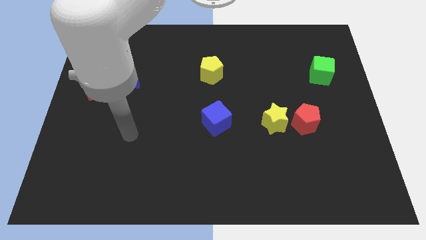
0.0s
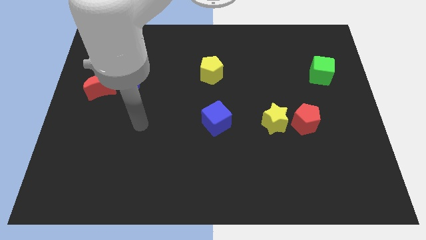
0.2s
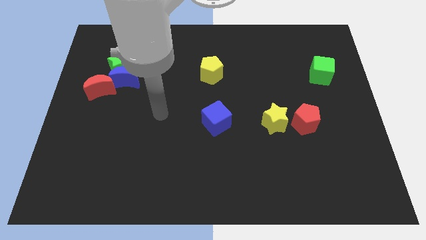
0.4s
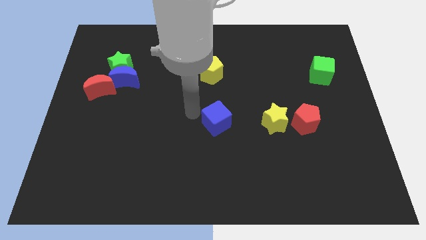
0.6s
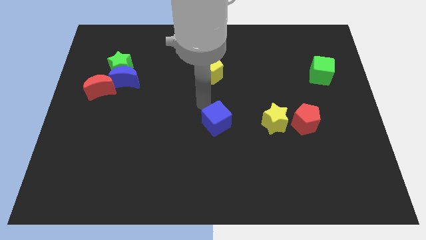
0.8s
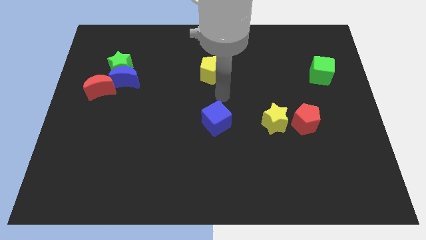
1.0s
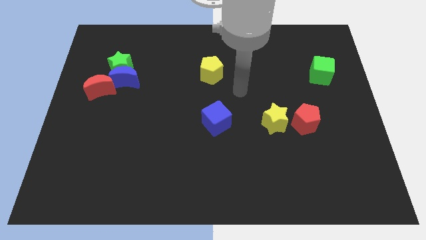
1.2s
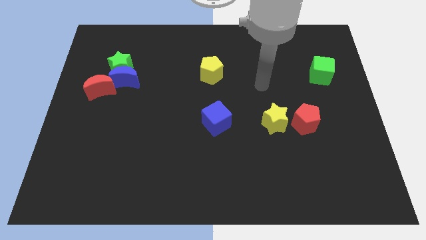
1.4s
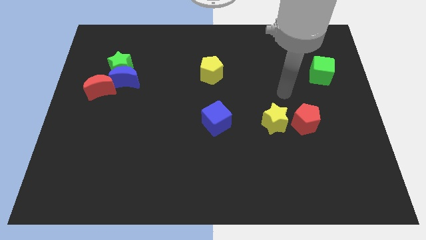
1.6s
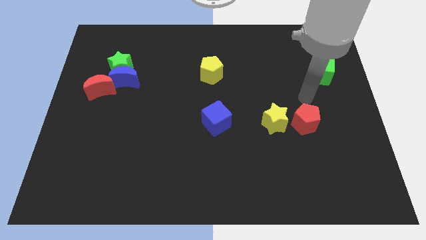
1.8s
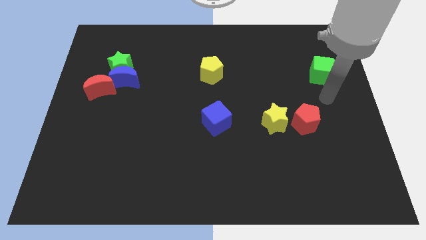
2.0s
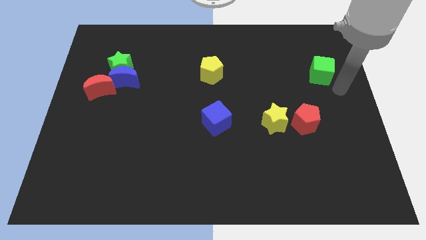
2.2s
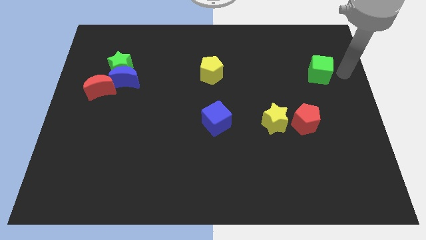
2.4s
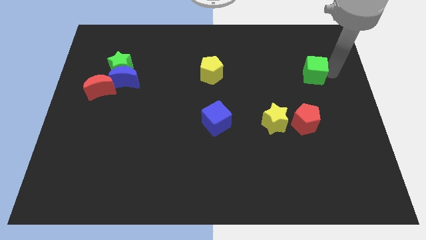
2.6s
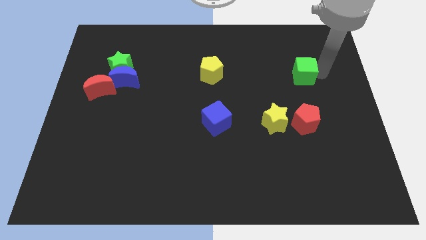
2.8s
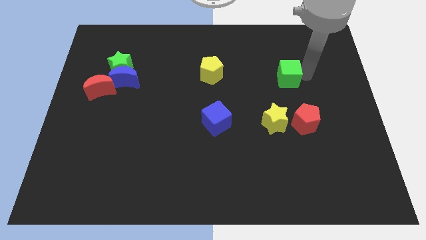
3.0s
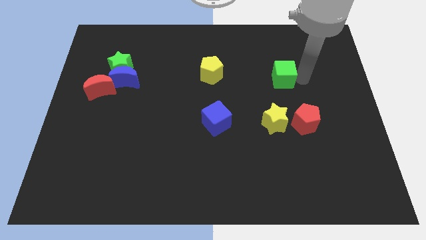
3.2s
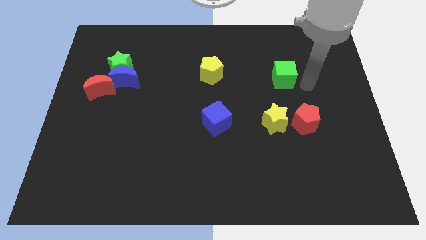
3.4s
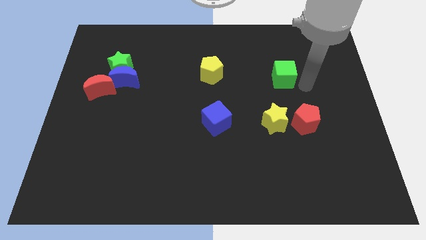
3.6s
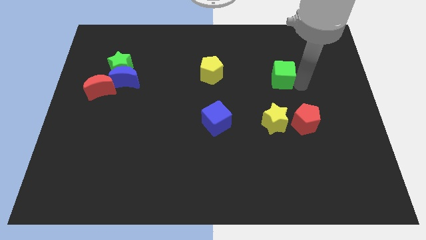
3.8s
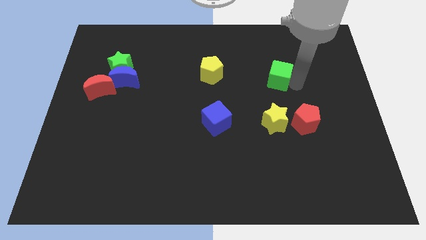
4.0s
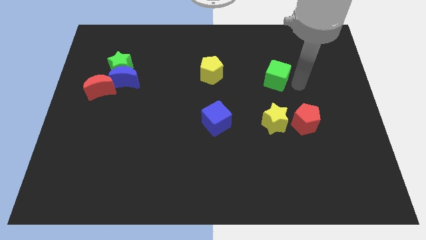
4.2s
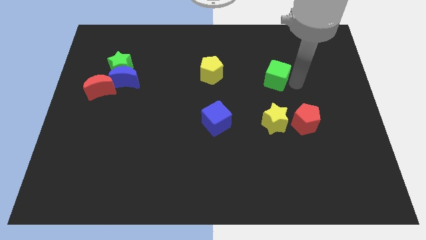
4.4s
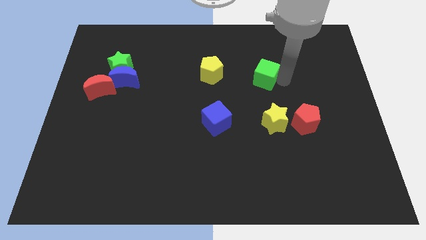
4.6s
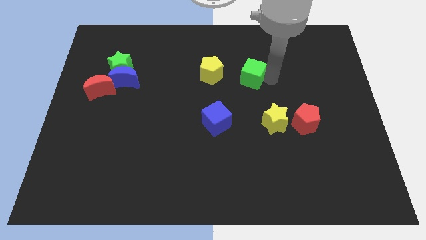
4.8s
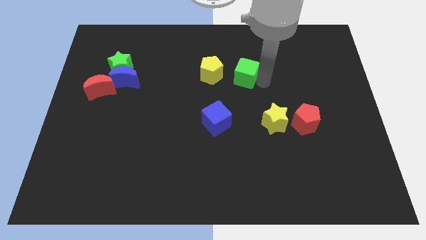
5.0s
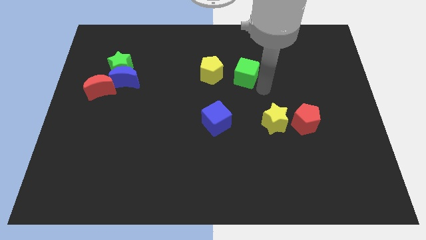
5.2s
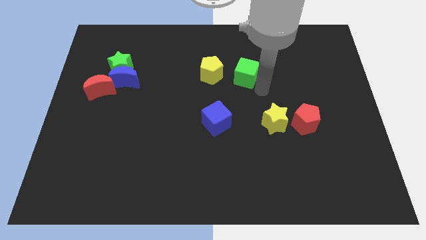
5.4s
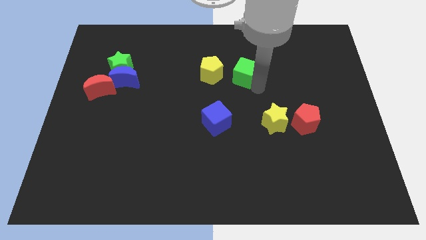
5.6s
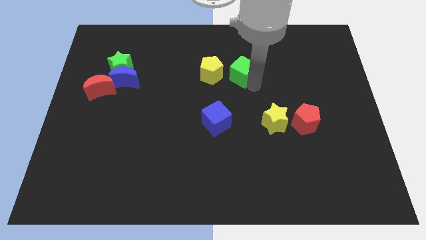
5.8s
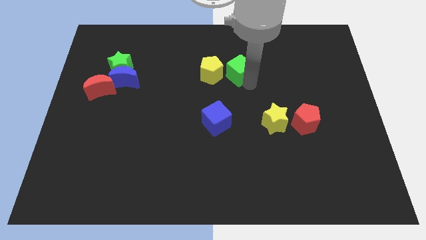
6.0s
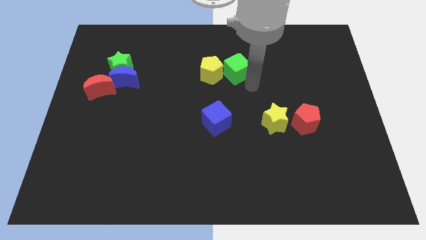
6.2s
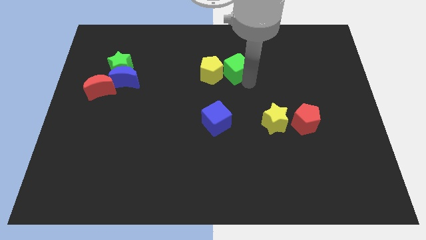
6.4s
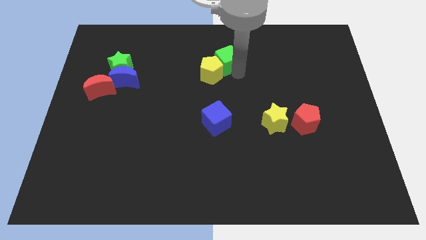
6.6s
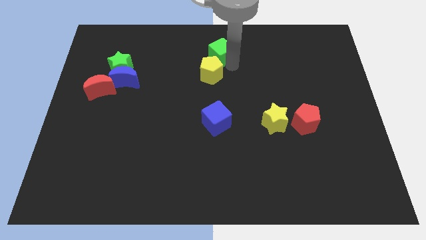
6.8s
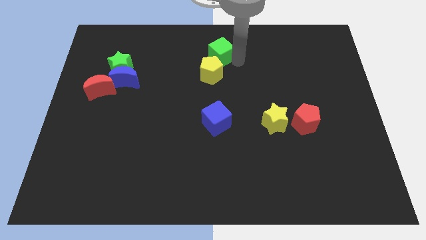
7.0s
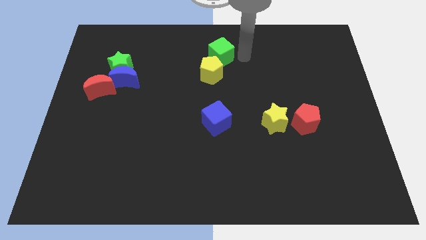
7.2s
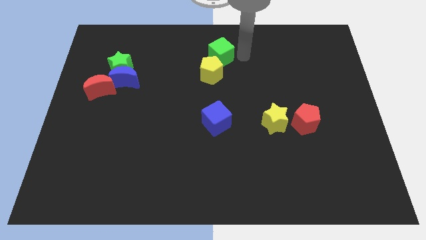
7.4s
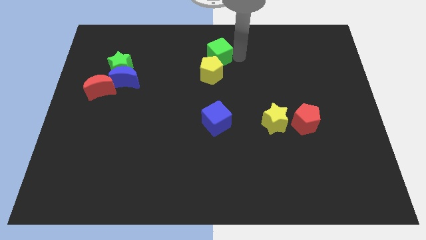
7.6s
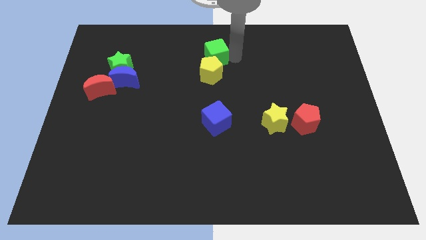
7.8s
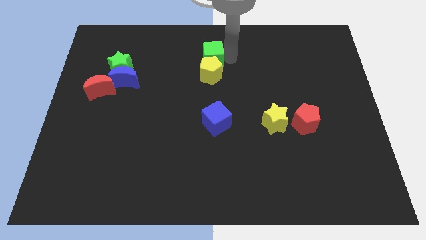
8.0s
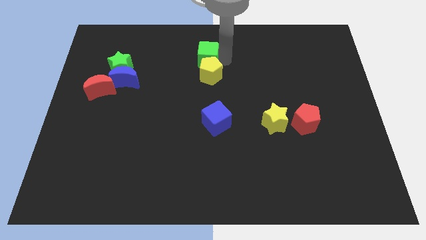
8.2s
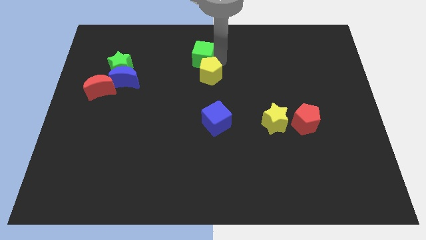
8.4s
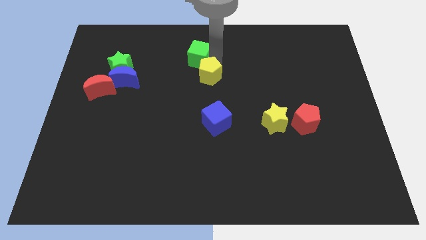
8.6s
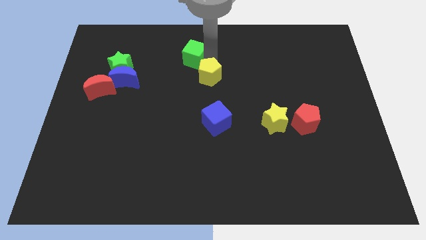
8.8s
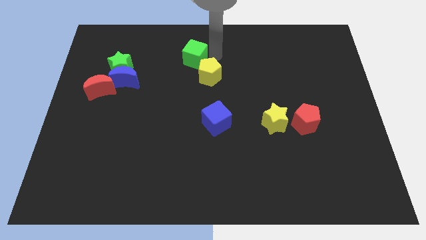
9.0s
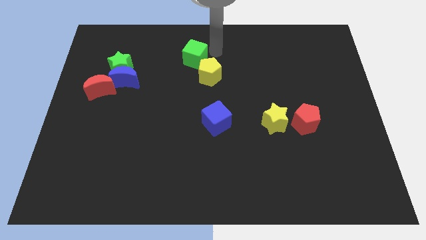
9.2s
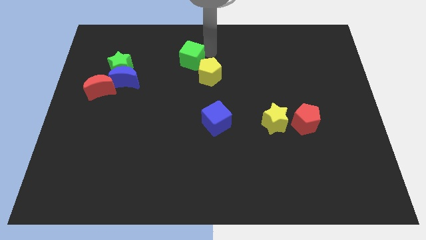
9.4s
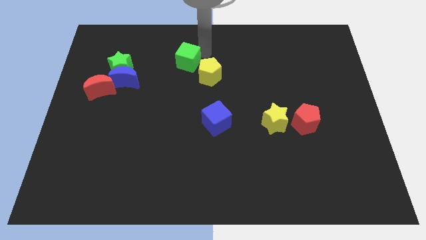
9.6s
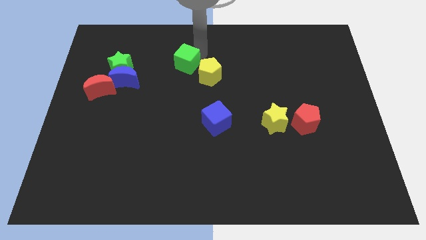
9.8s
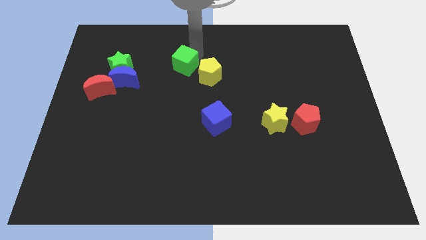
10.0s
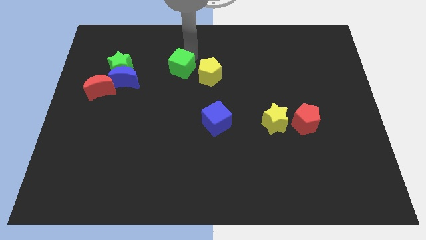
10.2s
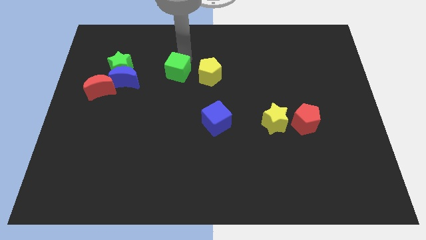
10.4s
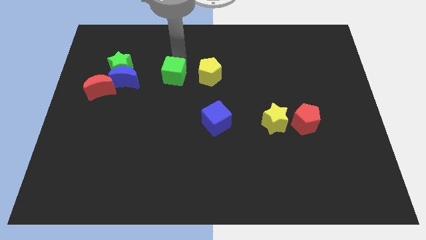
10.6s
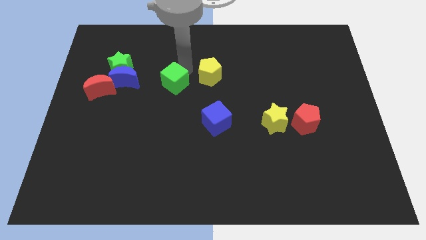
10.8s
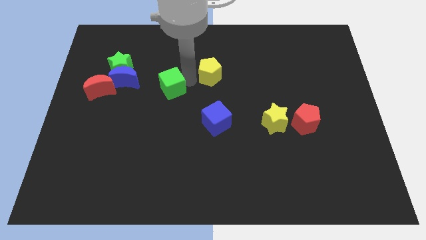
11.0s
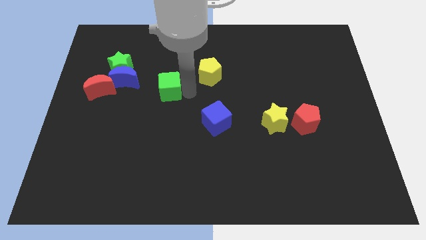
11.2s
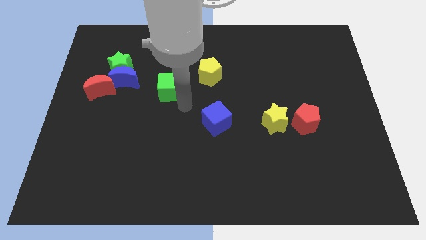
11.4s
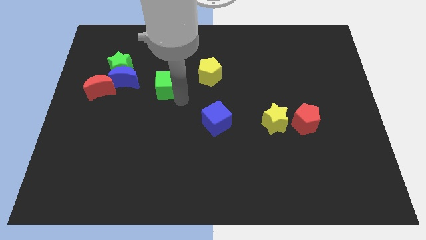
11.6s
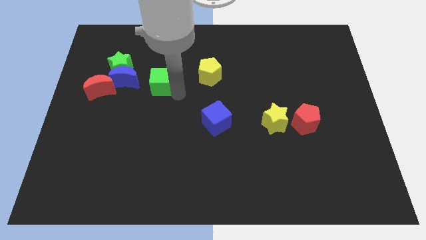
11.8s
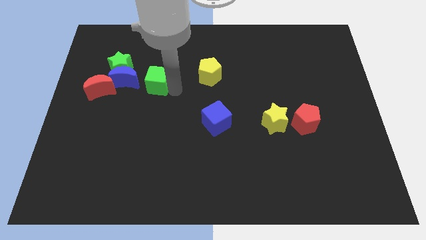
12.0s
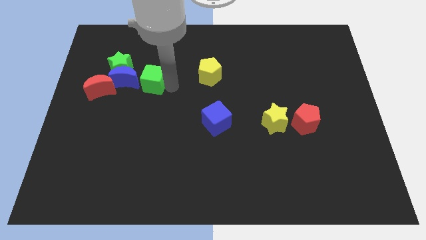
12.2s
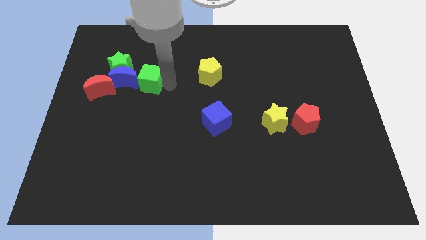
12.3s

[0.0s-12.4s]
put the green cube to the top right of the blue moon

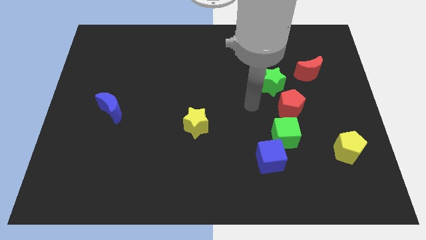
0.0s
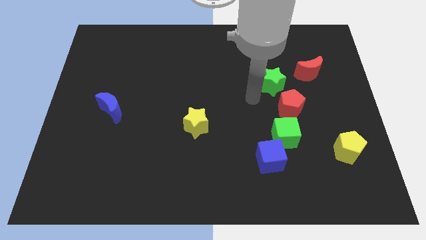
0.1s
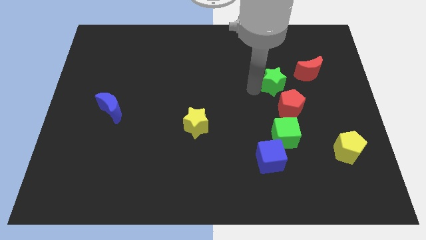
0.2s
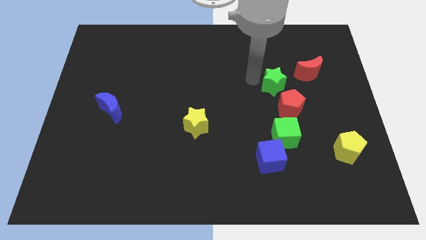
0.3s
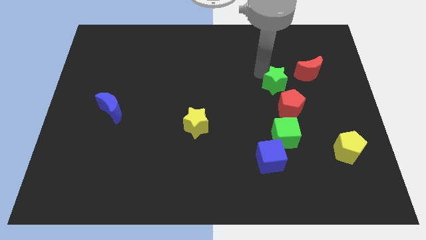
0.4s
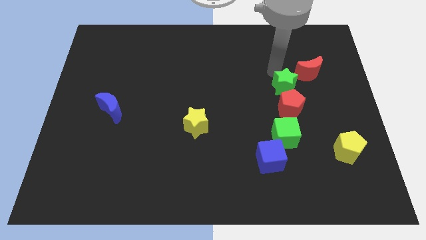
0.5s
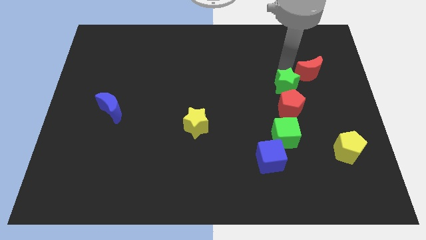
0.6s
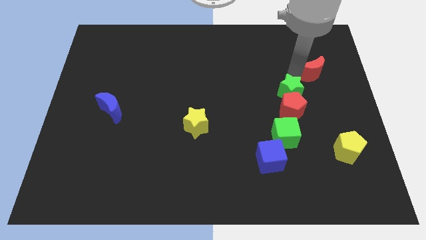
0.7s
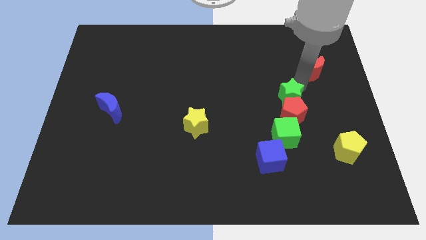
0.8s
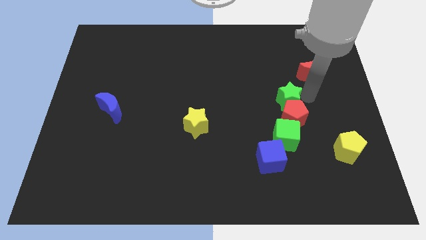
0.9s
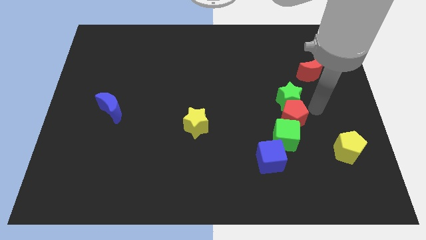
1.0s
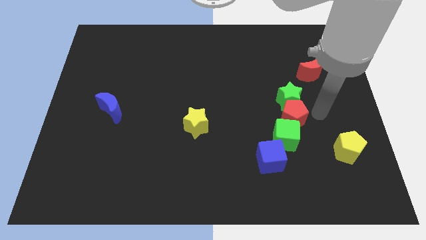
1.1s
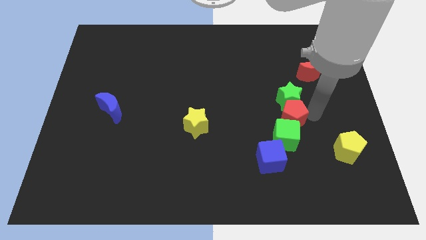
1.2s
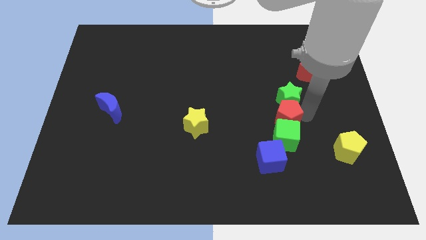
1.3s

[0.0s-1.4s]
slide the red pentagon to the top of the blue cube
